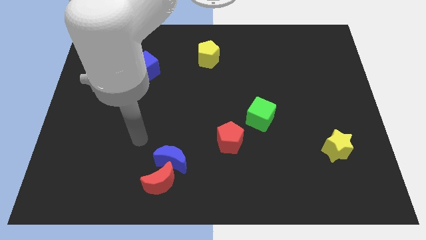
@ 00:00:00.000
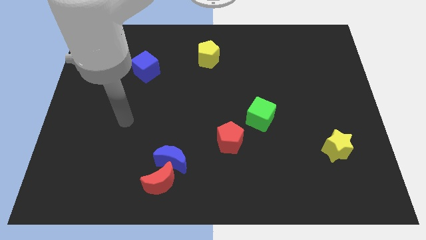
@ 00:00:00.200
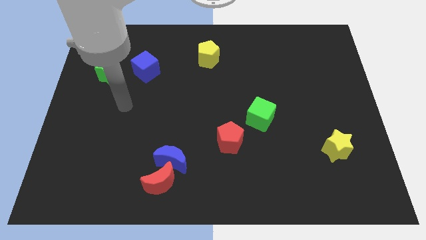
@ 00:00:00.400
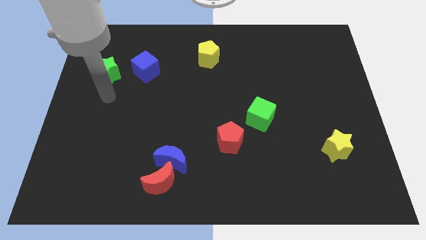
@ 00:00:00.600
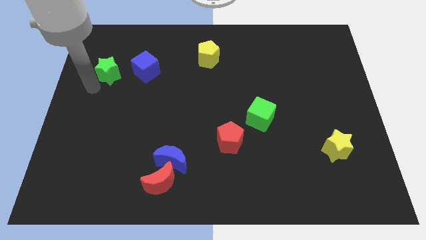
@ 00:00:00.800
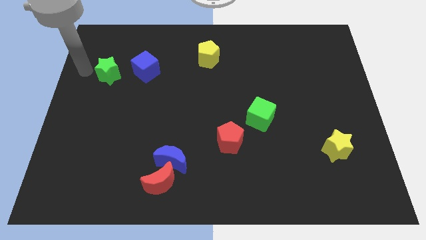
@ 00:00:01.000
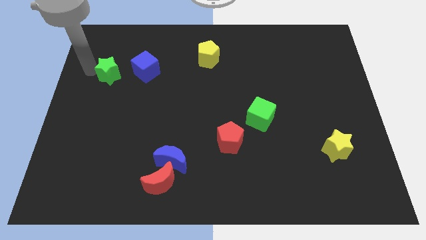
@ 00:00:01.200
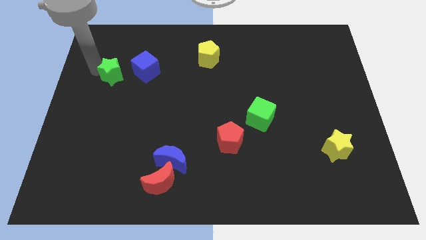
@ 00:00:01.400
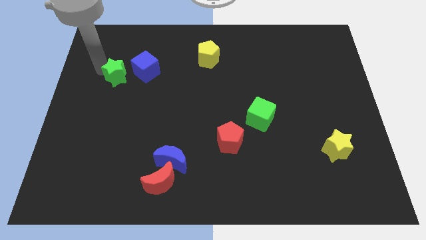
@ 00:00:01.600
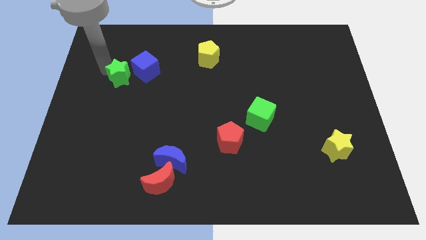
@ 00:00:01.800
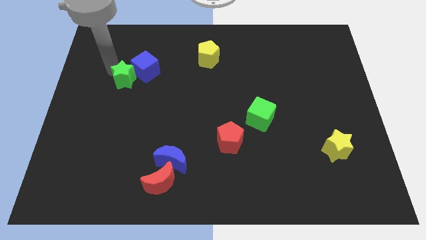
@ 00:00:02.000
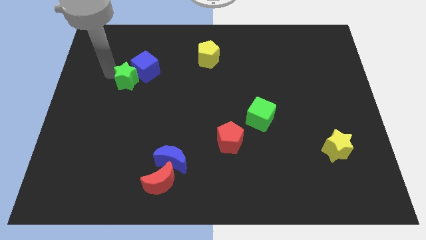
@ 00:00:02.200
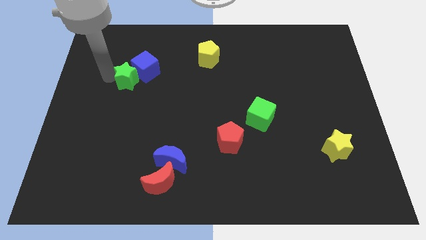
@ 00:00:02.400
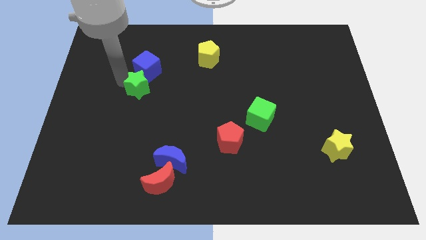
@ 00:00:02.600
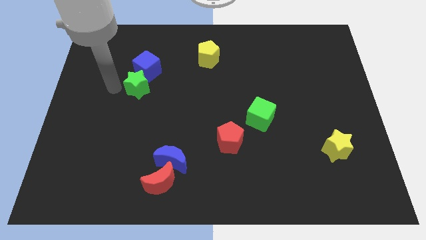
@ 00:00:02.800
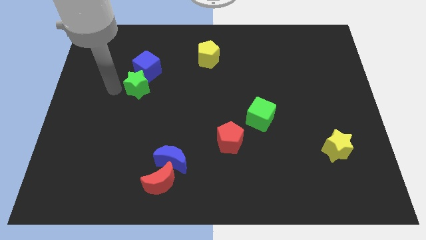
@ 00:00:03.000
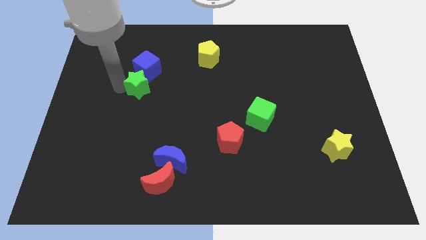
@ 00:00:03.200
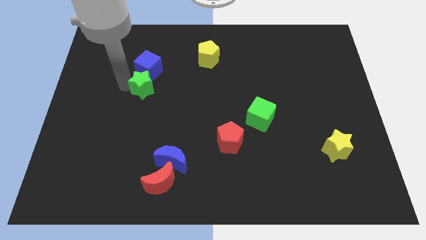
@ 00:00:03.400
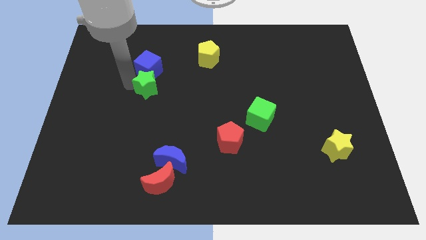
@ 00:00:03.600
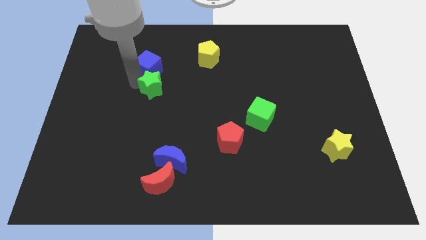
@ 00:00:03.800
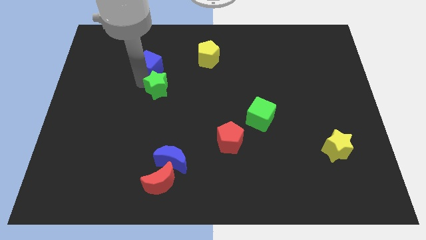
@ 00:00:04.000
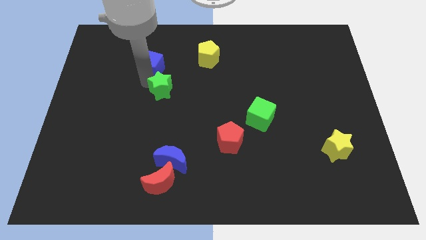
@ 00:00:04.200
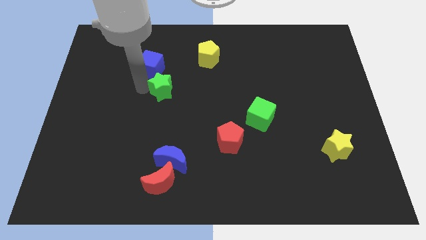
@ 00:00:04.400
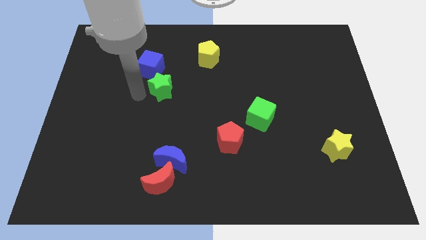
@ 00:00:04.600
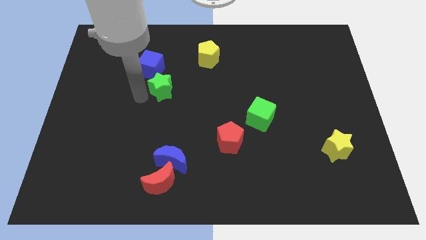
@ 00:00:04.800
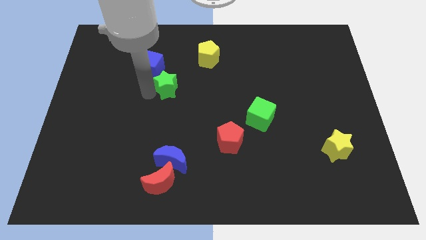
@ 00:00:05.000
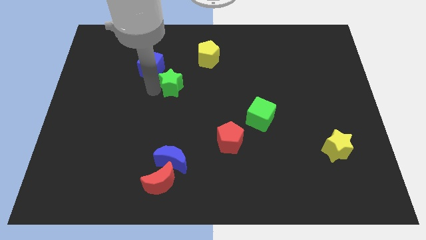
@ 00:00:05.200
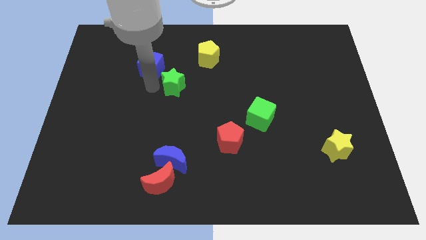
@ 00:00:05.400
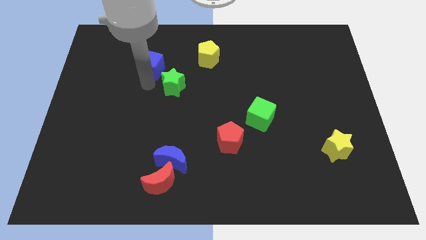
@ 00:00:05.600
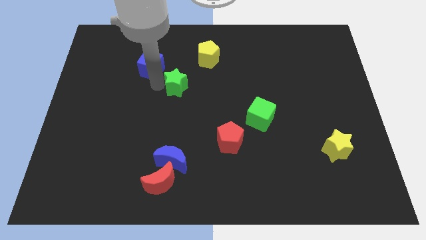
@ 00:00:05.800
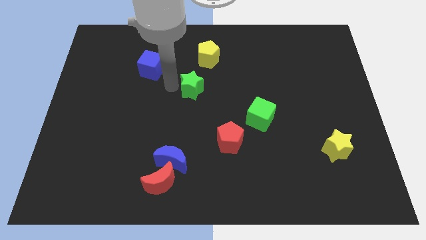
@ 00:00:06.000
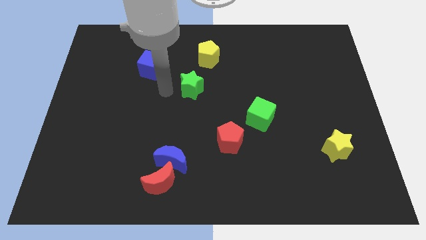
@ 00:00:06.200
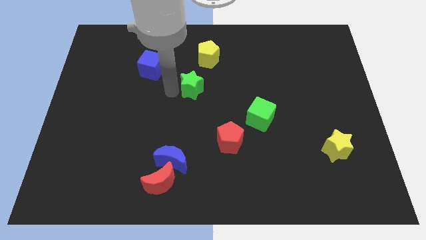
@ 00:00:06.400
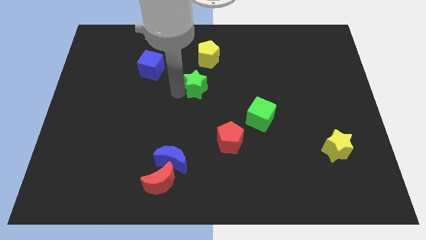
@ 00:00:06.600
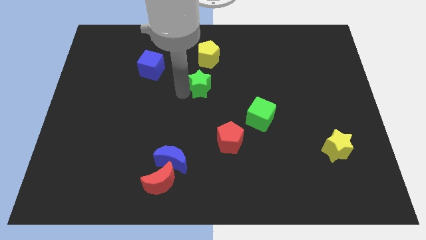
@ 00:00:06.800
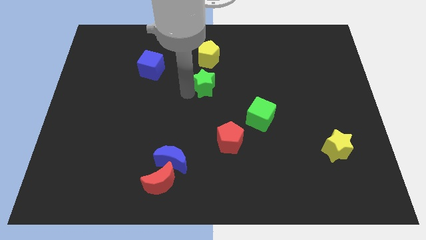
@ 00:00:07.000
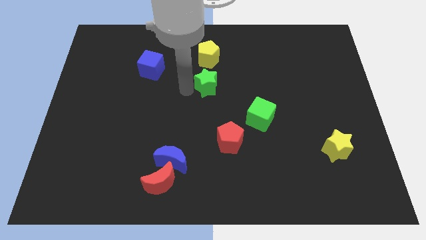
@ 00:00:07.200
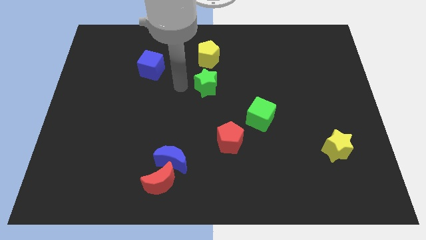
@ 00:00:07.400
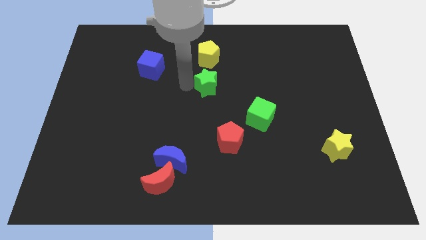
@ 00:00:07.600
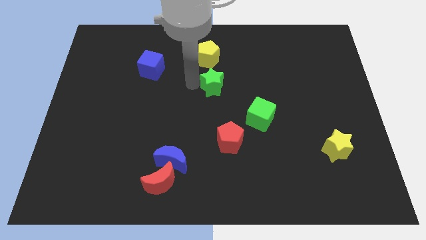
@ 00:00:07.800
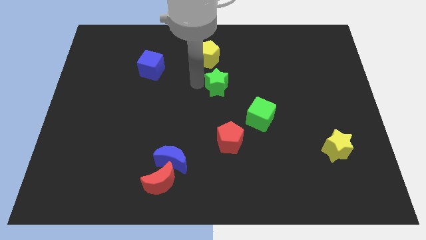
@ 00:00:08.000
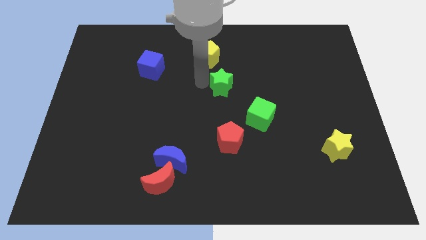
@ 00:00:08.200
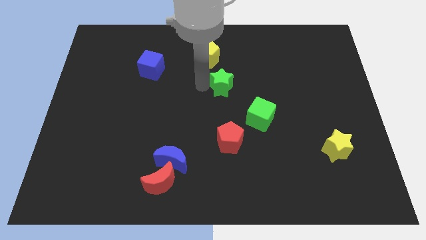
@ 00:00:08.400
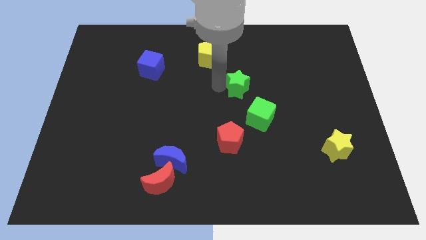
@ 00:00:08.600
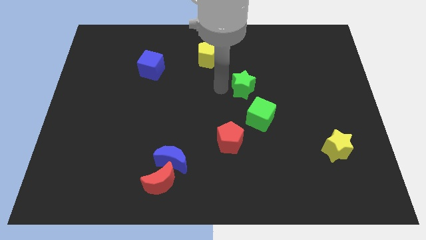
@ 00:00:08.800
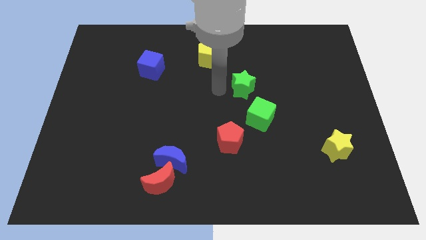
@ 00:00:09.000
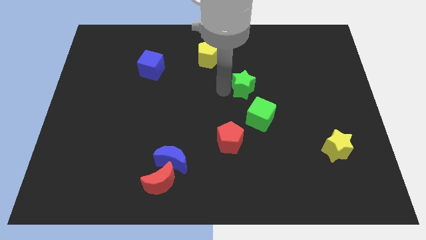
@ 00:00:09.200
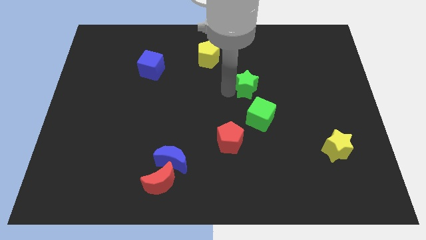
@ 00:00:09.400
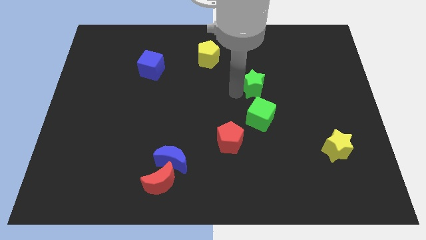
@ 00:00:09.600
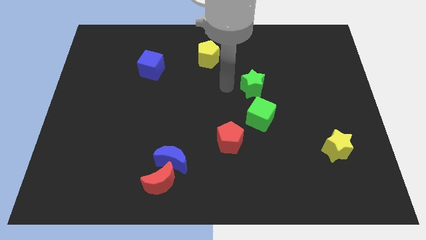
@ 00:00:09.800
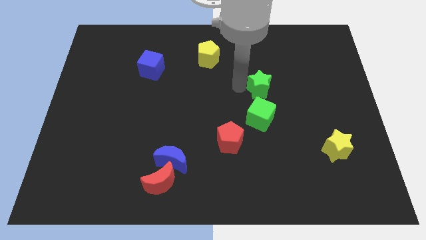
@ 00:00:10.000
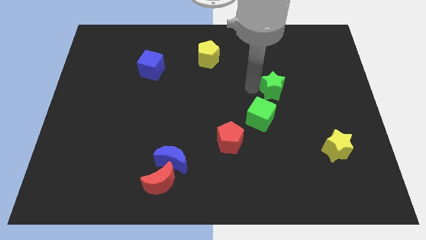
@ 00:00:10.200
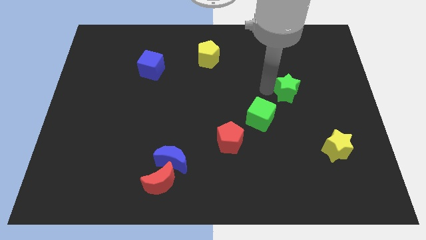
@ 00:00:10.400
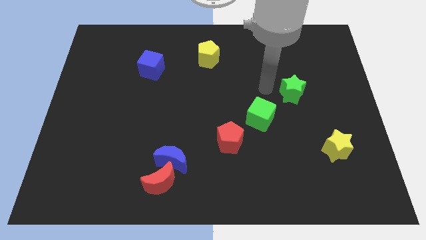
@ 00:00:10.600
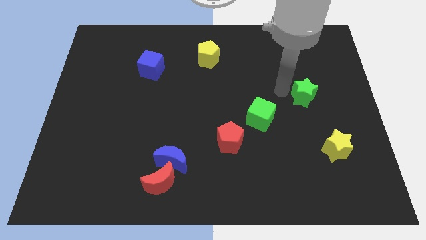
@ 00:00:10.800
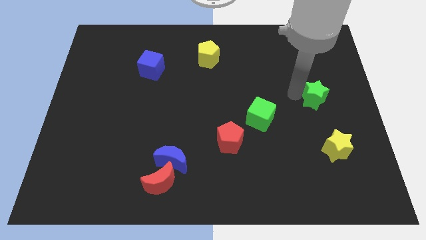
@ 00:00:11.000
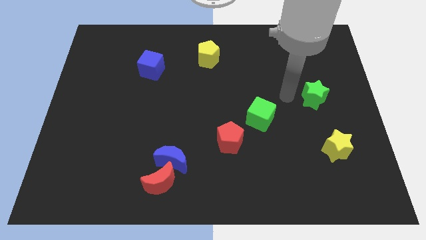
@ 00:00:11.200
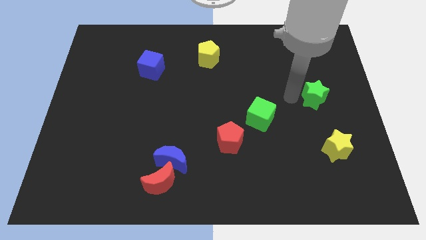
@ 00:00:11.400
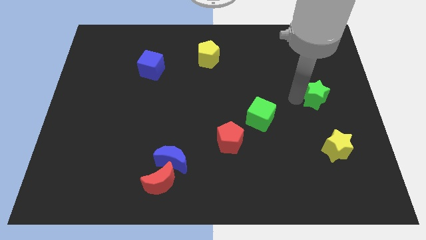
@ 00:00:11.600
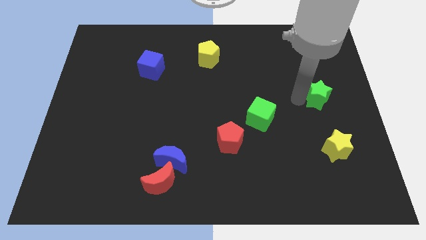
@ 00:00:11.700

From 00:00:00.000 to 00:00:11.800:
put the green star to the center right

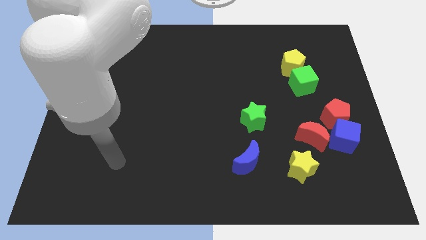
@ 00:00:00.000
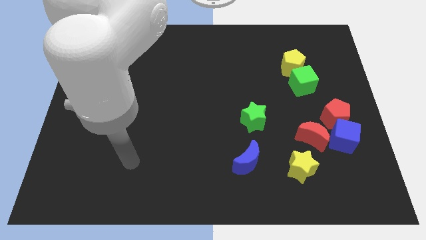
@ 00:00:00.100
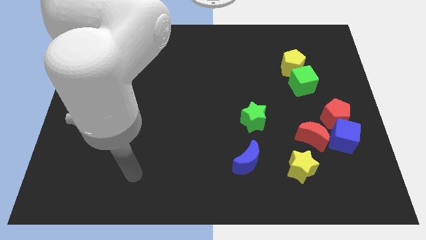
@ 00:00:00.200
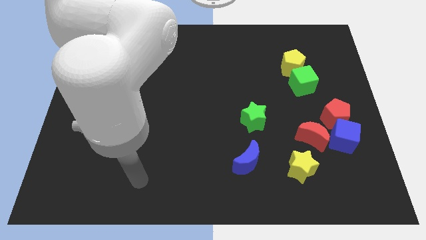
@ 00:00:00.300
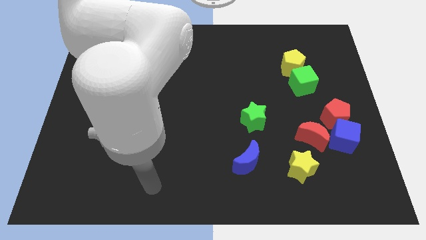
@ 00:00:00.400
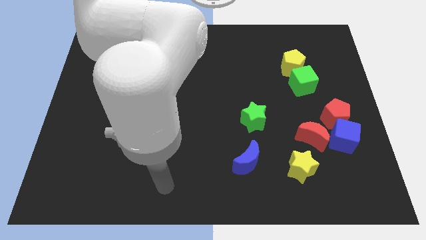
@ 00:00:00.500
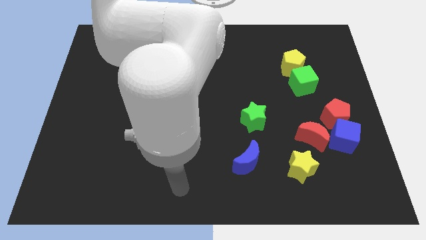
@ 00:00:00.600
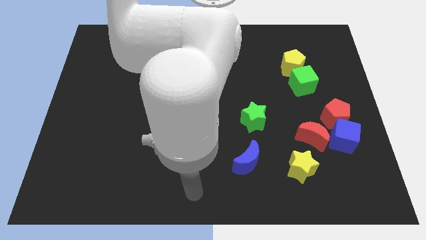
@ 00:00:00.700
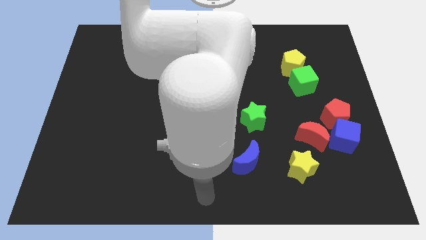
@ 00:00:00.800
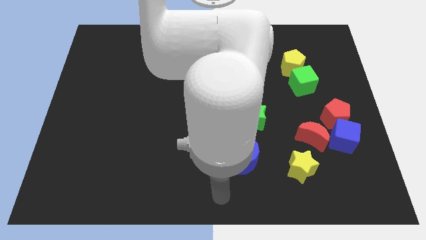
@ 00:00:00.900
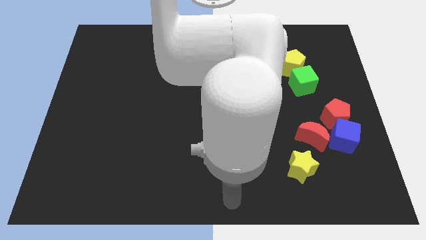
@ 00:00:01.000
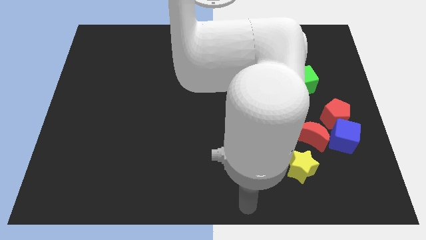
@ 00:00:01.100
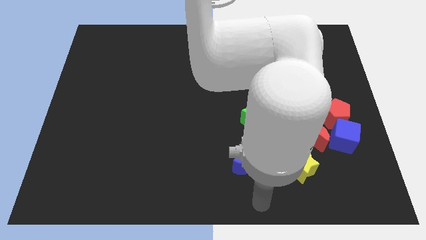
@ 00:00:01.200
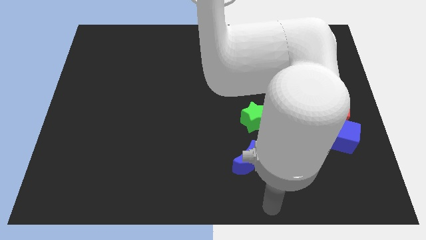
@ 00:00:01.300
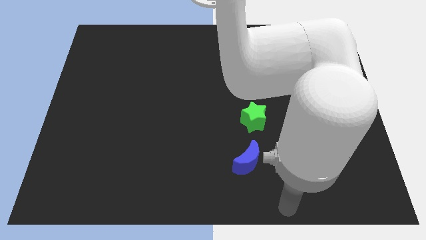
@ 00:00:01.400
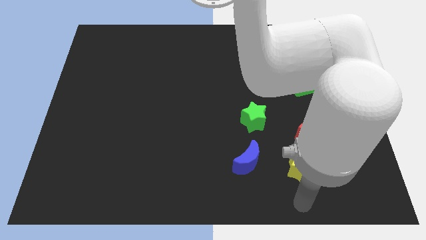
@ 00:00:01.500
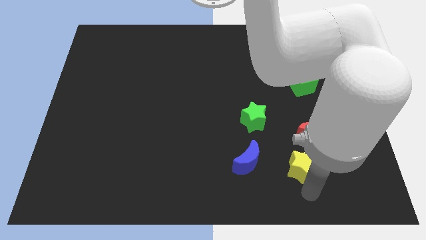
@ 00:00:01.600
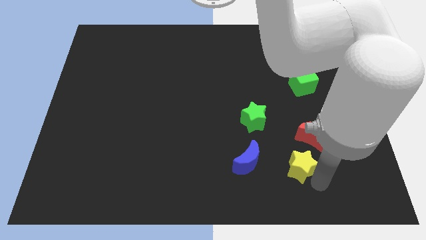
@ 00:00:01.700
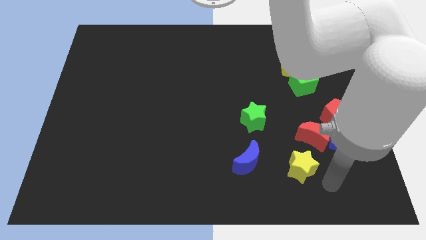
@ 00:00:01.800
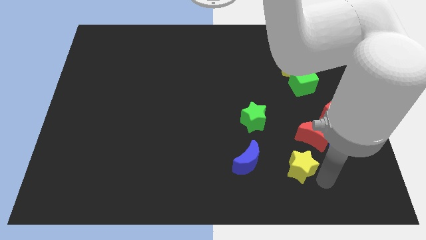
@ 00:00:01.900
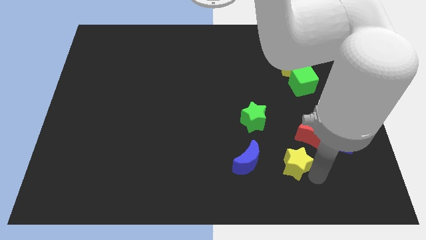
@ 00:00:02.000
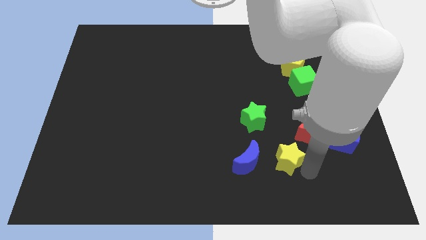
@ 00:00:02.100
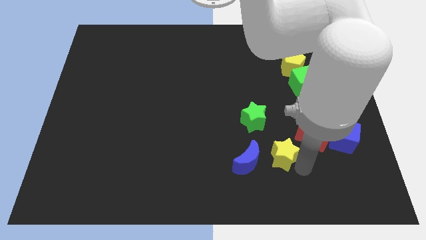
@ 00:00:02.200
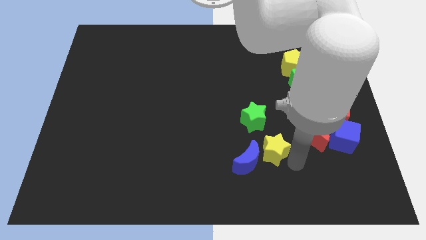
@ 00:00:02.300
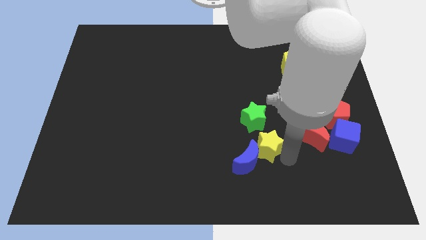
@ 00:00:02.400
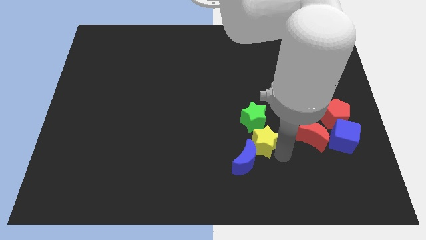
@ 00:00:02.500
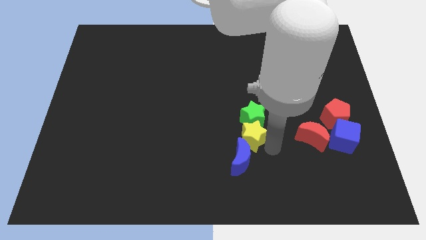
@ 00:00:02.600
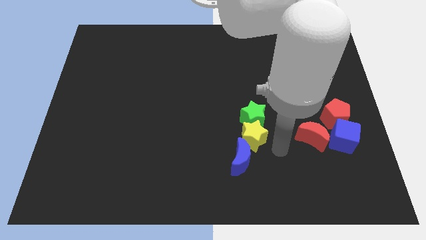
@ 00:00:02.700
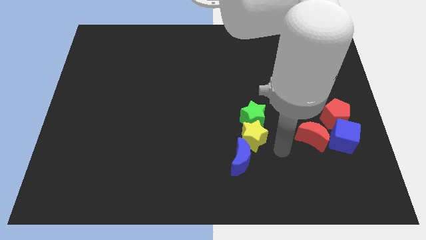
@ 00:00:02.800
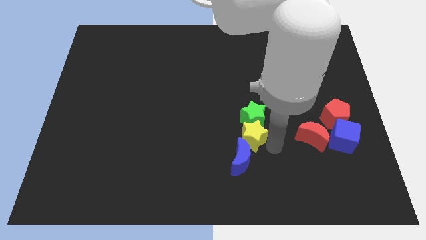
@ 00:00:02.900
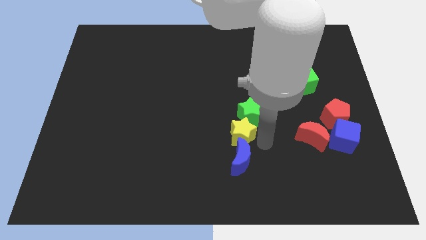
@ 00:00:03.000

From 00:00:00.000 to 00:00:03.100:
slide the yellow star to the center of the board
